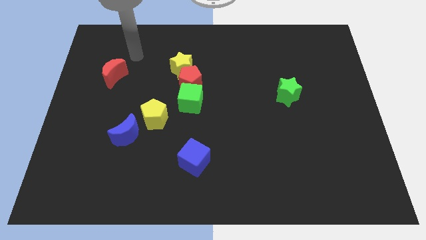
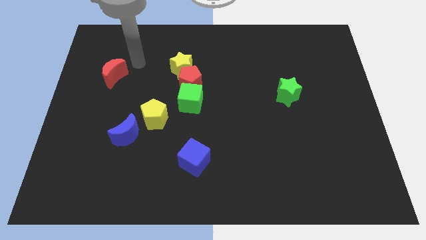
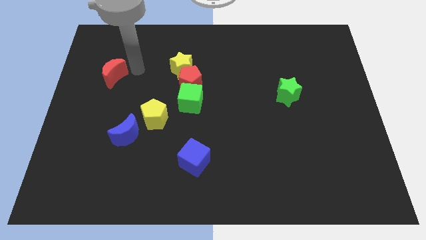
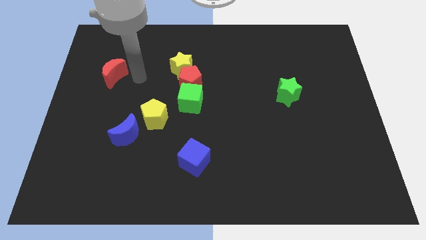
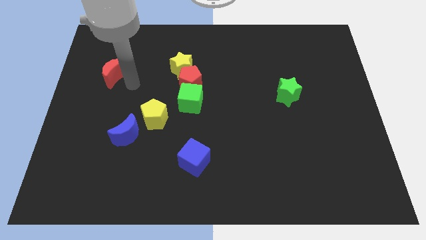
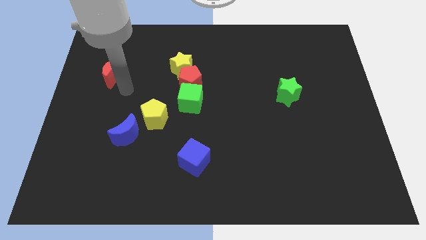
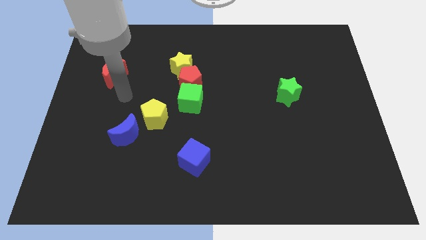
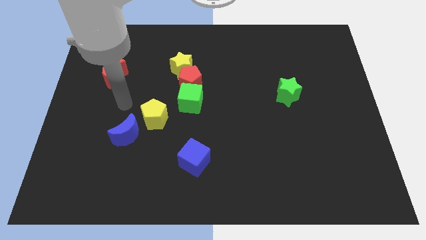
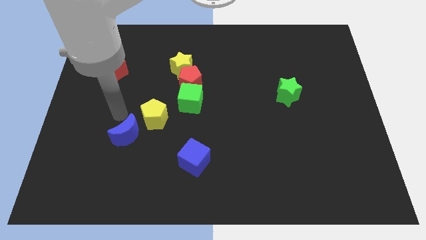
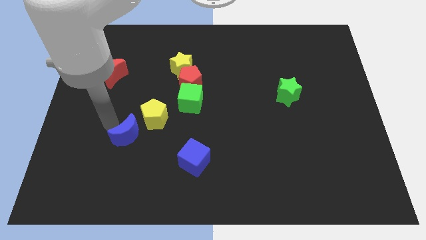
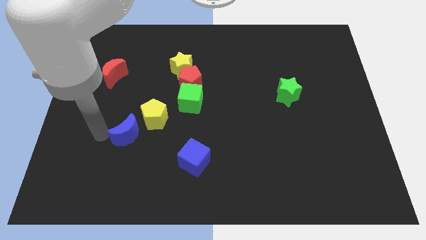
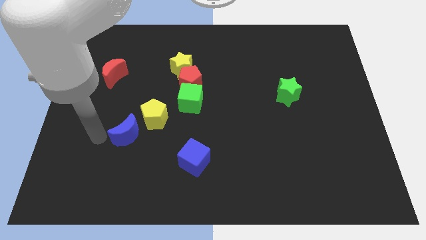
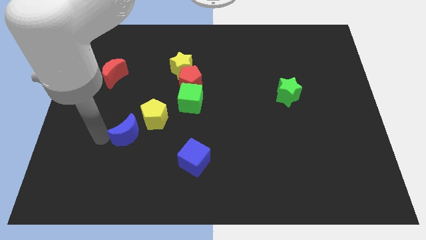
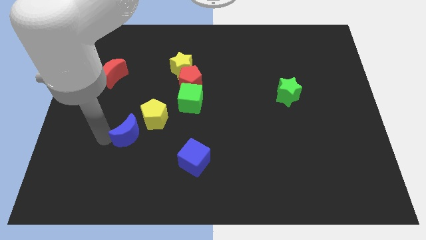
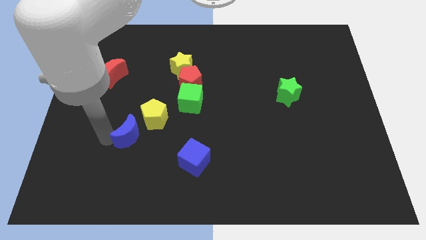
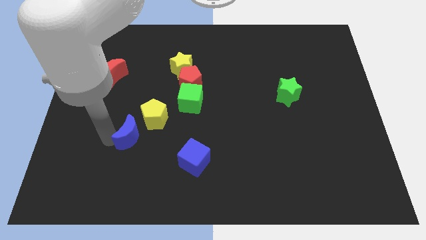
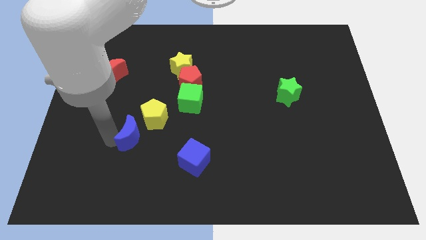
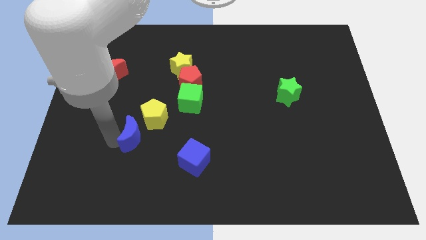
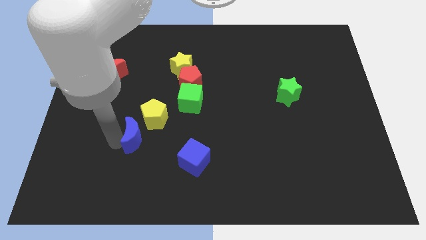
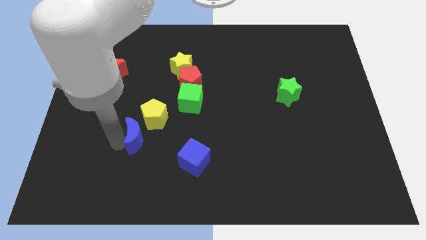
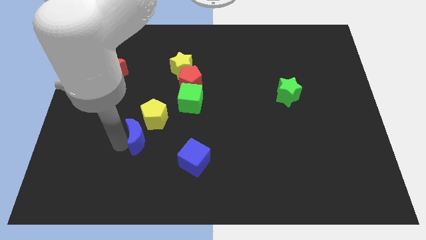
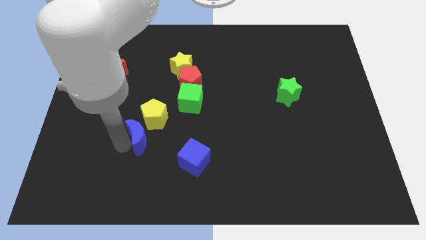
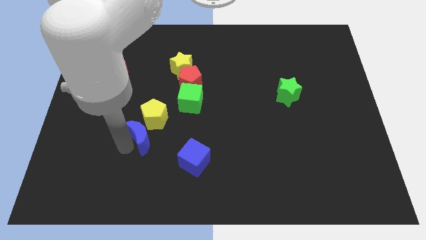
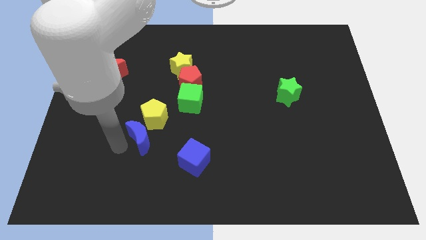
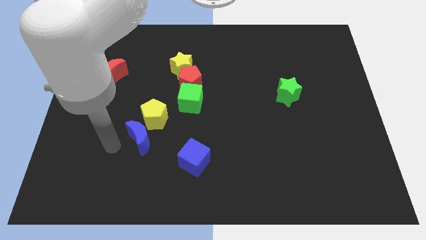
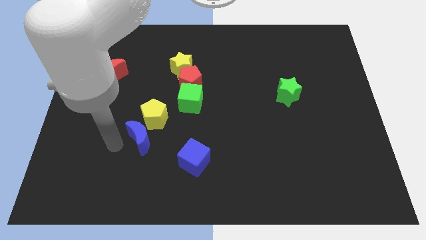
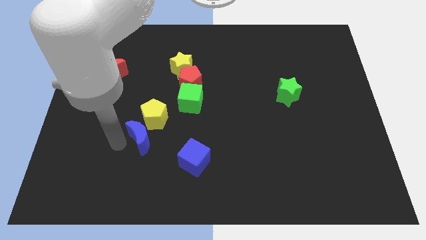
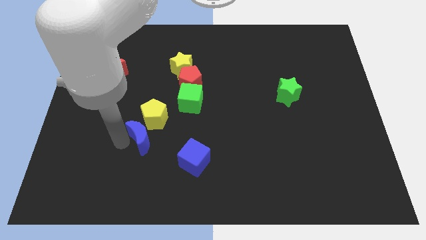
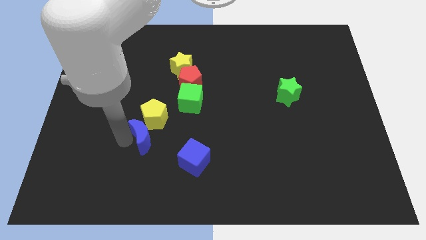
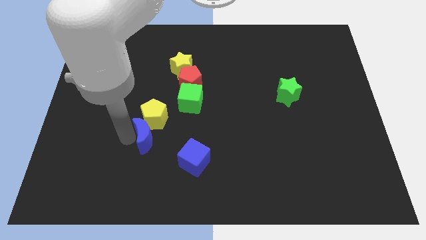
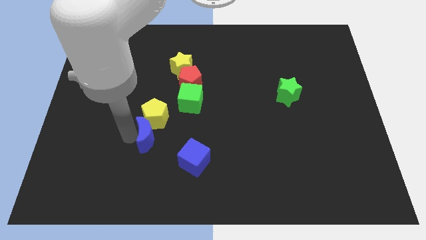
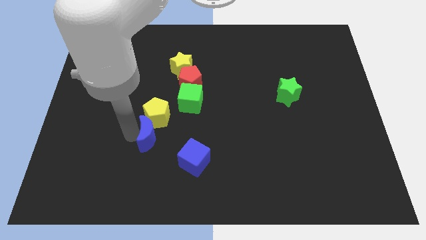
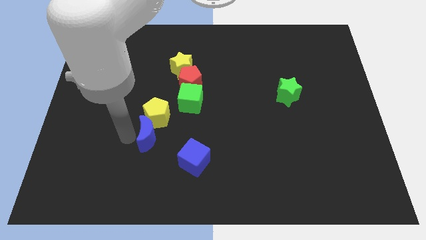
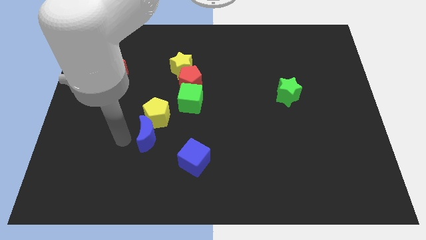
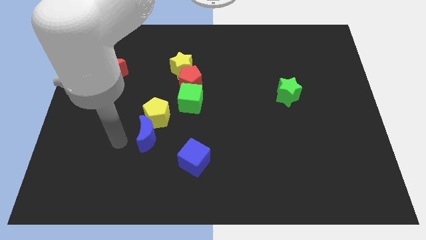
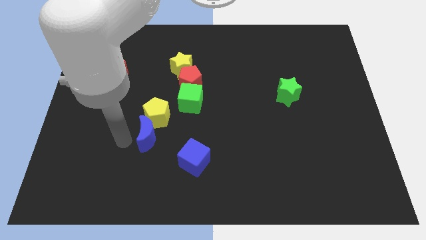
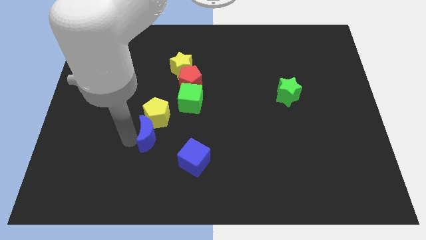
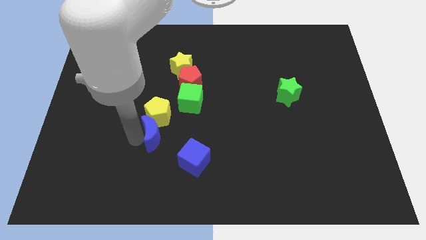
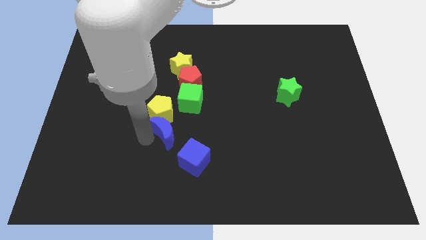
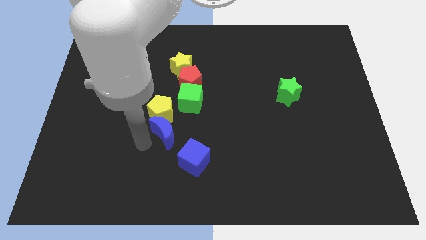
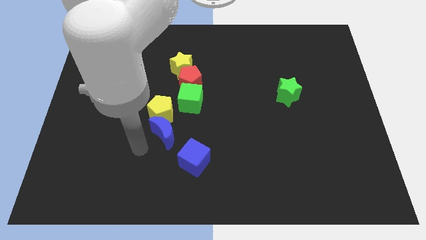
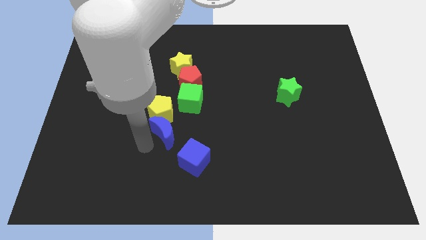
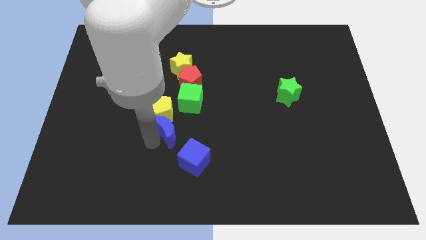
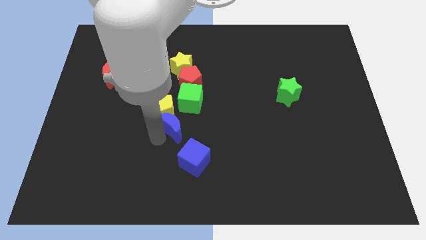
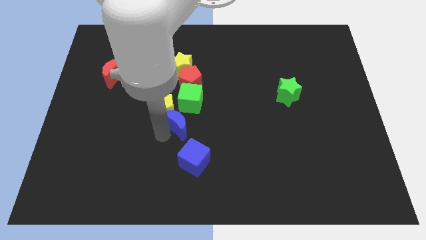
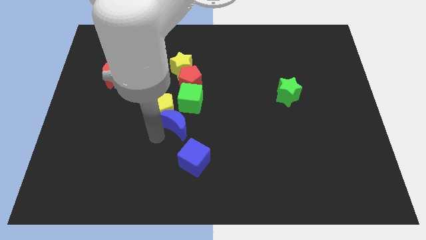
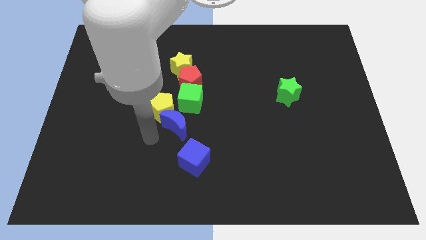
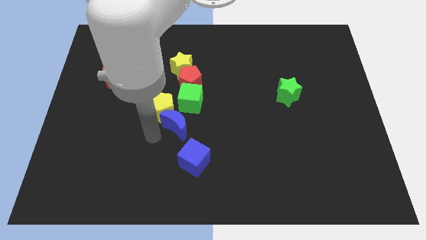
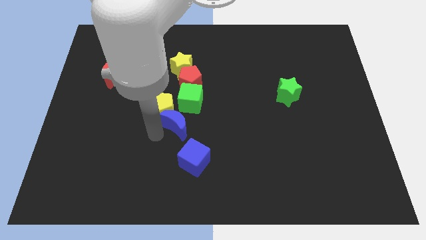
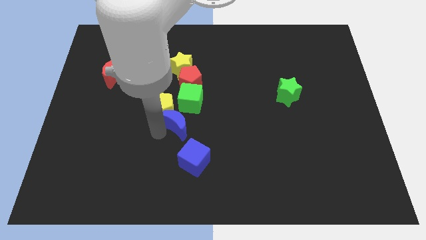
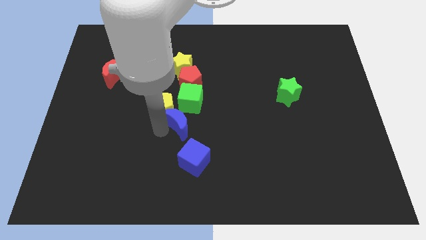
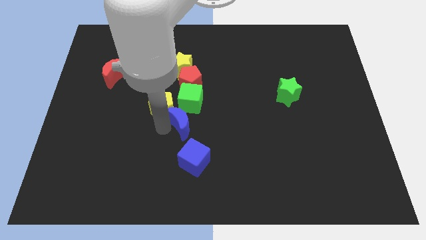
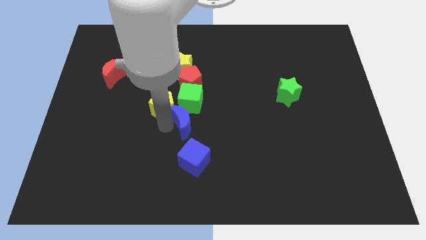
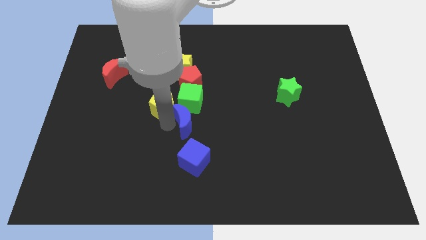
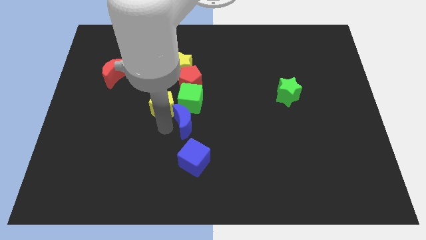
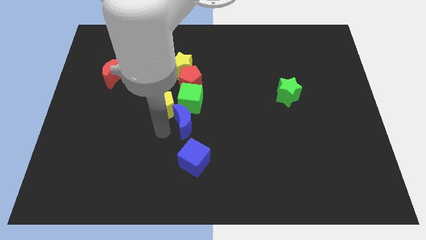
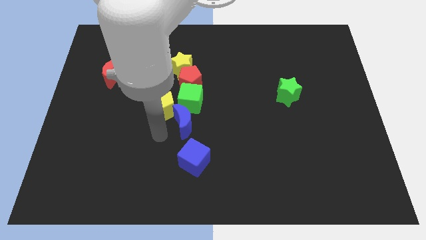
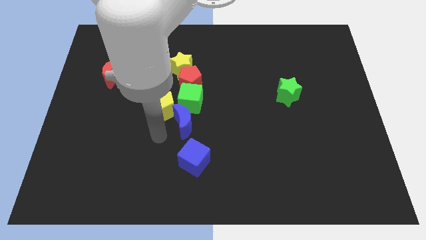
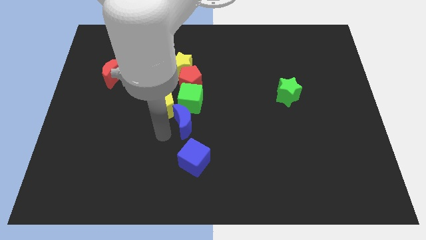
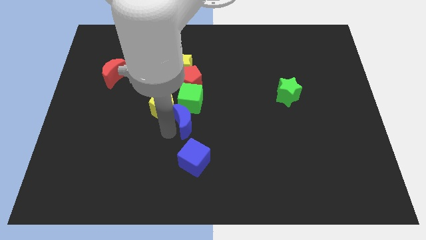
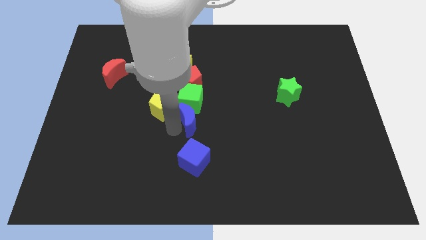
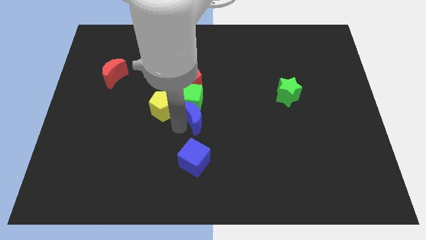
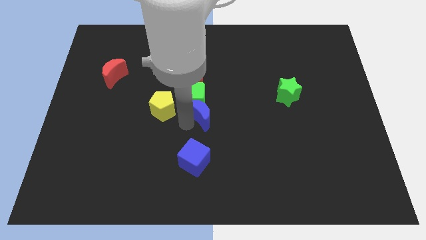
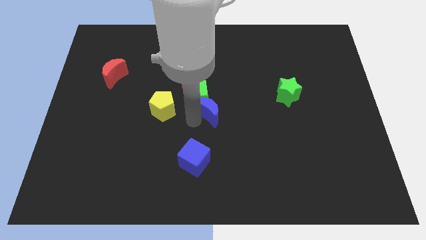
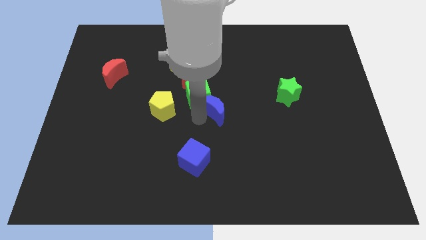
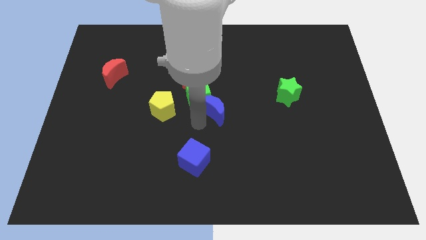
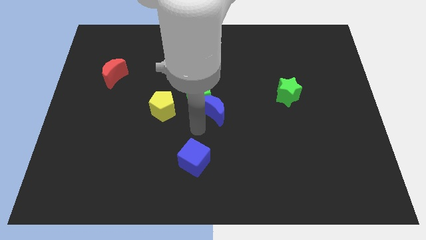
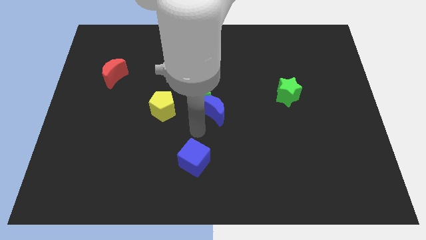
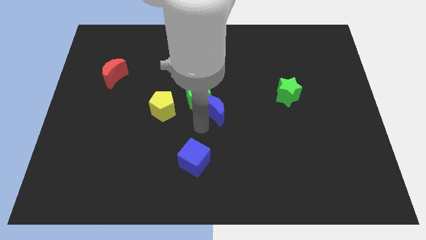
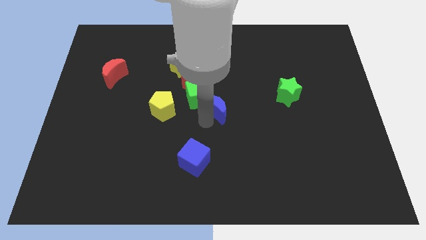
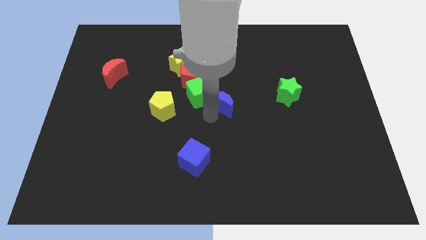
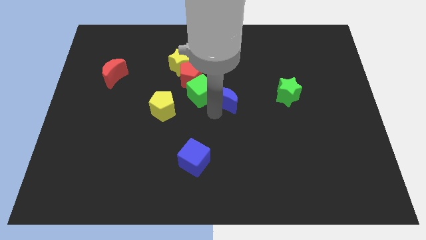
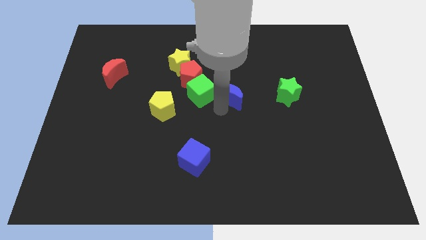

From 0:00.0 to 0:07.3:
move the blue moon upwards and then right

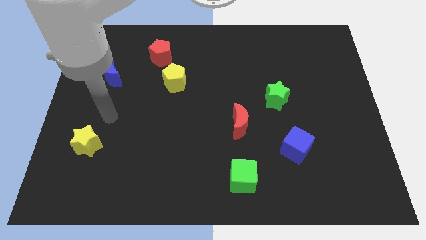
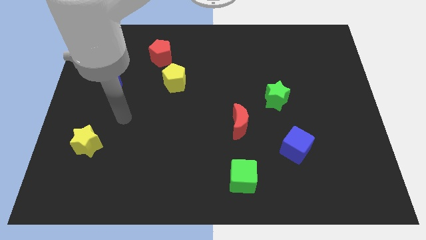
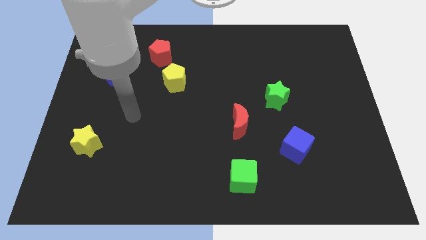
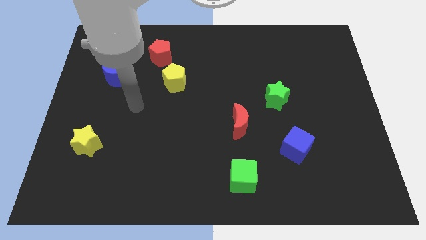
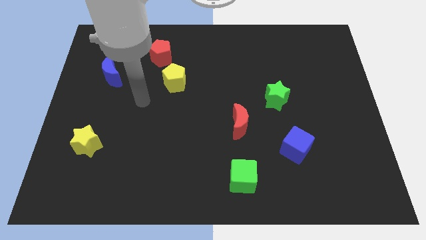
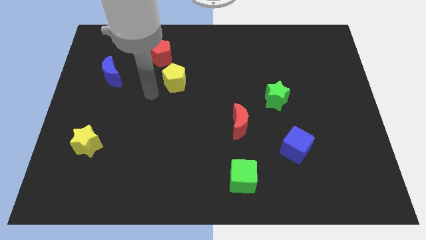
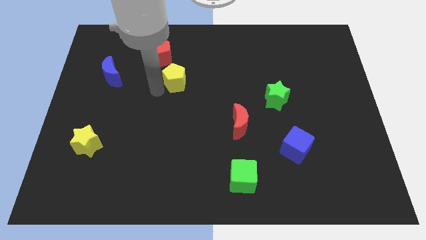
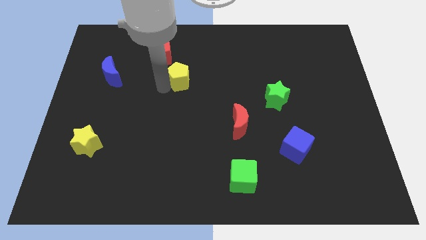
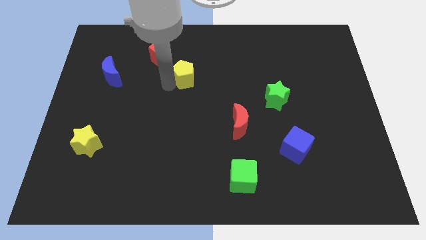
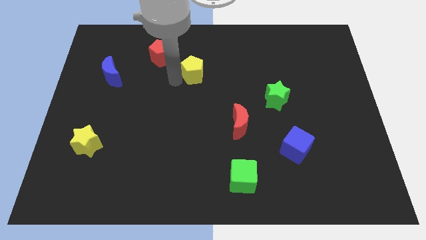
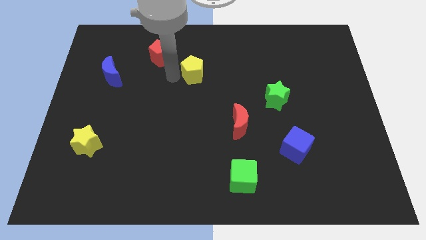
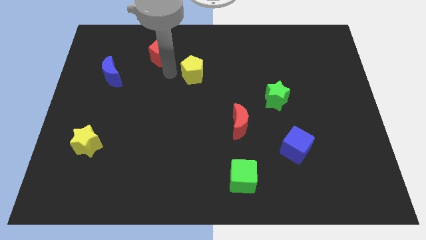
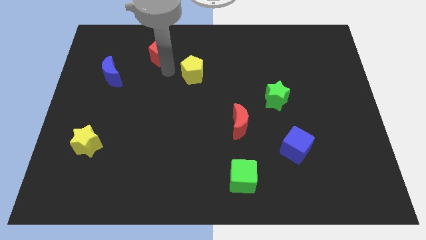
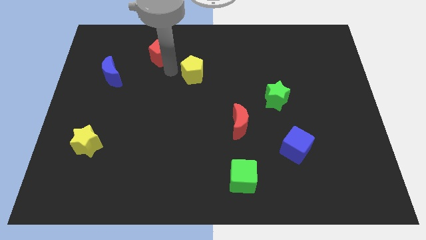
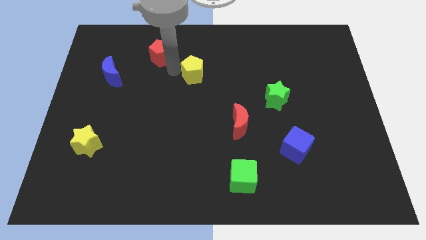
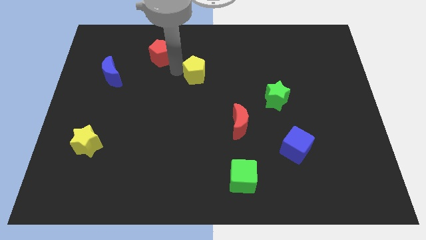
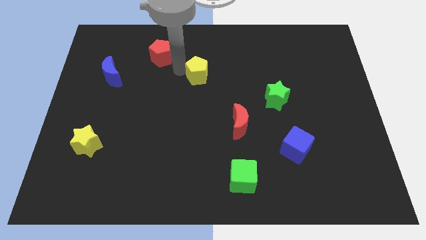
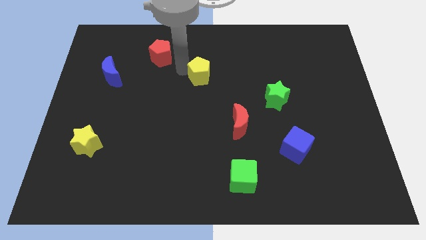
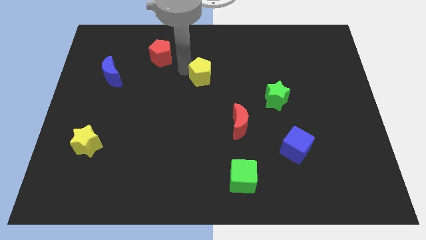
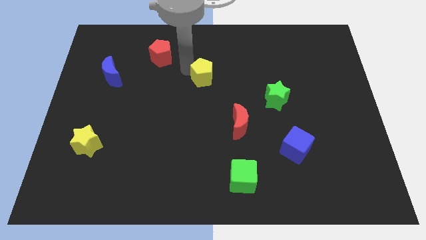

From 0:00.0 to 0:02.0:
move the yellow pentagon slightly to the right
